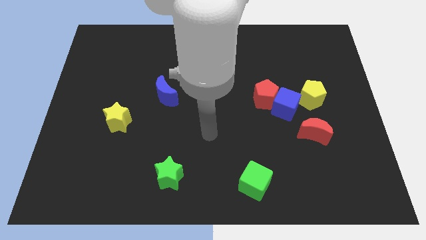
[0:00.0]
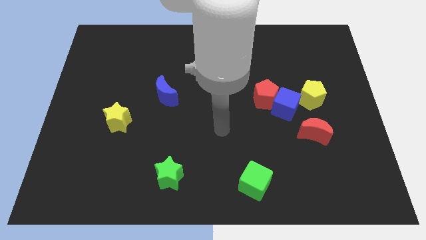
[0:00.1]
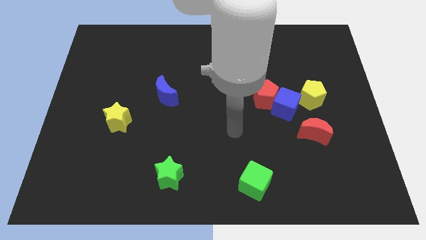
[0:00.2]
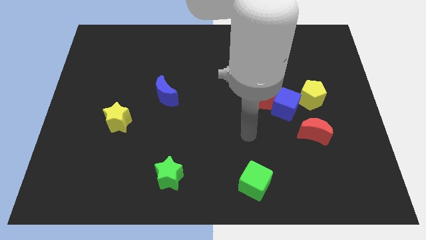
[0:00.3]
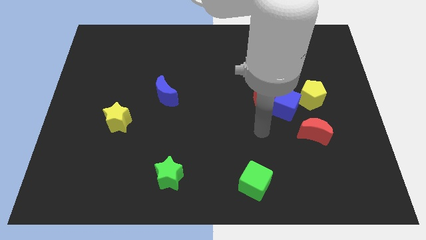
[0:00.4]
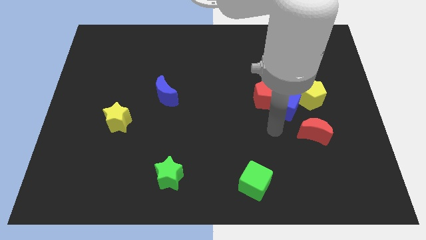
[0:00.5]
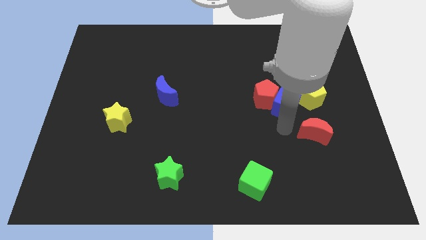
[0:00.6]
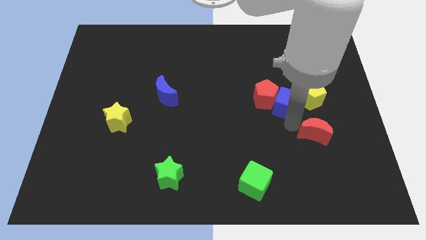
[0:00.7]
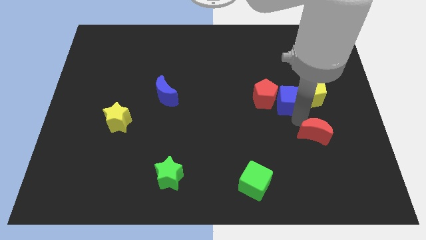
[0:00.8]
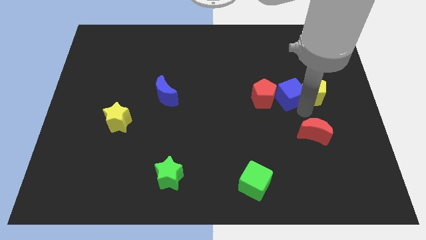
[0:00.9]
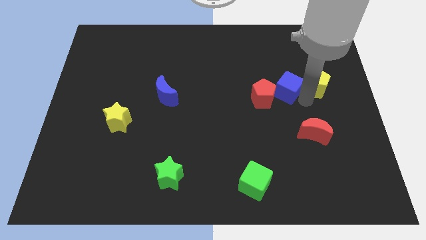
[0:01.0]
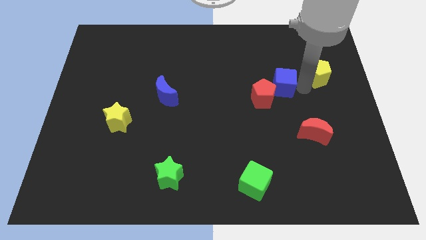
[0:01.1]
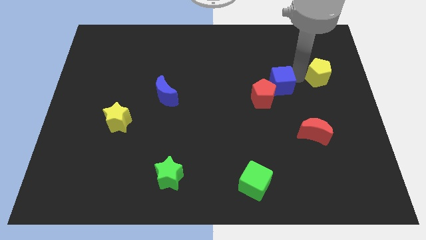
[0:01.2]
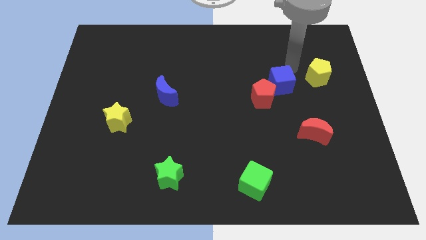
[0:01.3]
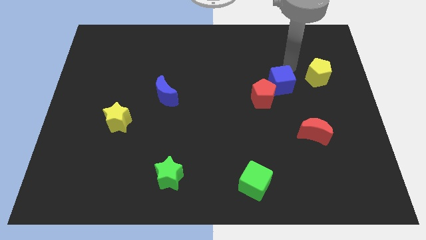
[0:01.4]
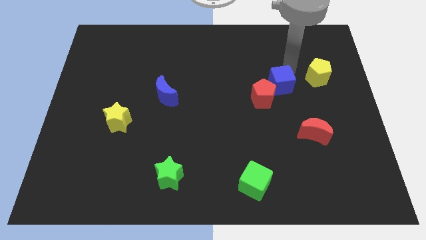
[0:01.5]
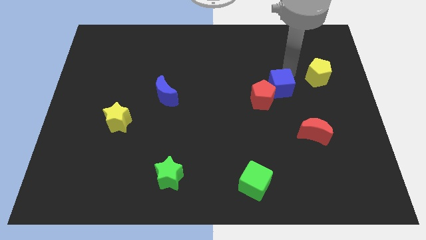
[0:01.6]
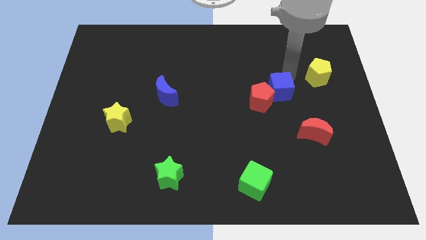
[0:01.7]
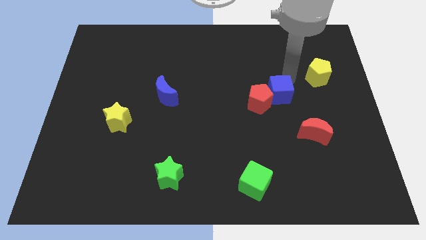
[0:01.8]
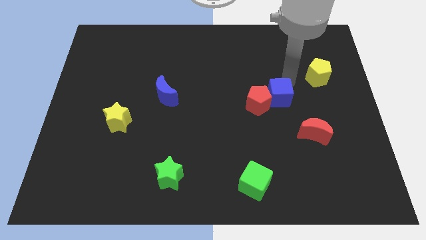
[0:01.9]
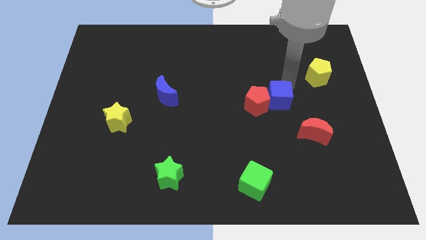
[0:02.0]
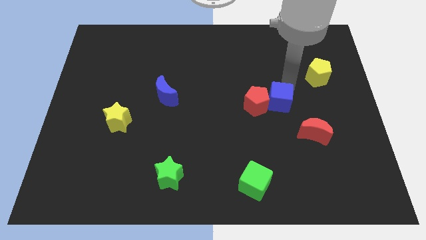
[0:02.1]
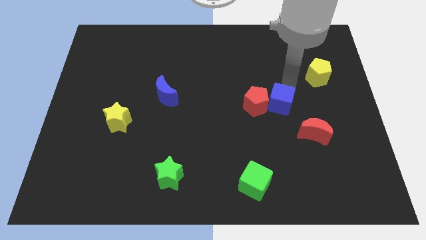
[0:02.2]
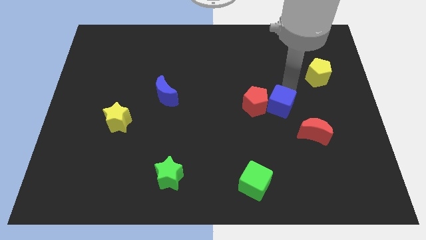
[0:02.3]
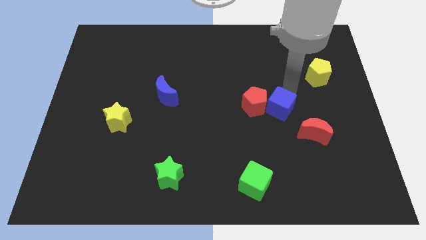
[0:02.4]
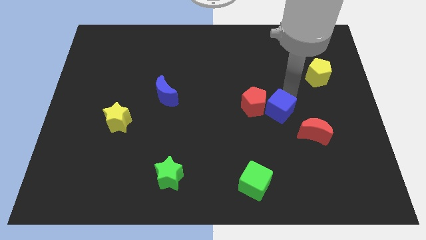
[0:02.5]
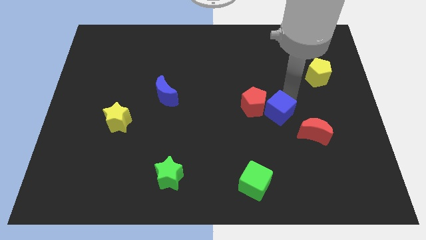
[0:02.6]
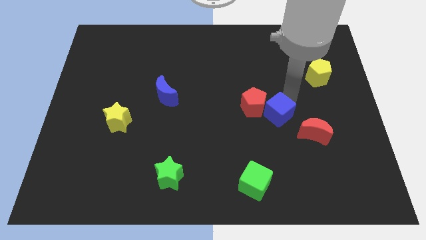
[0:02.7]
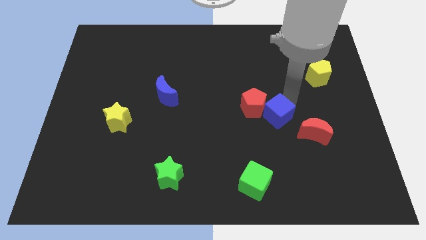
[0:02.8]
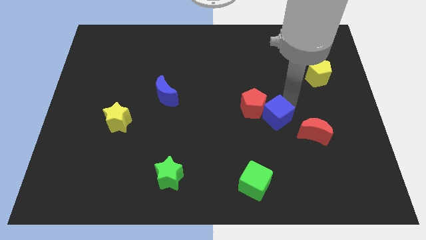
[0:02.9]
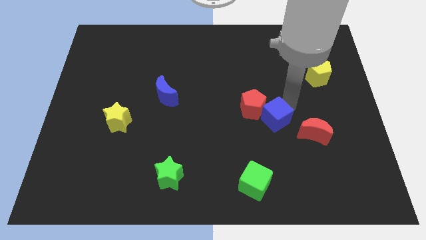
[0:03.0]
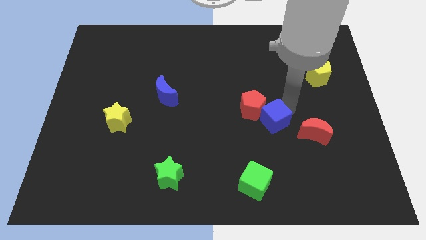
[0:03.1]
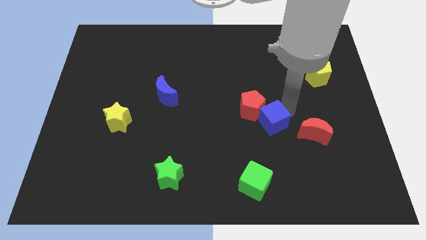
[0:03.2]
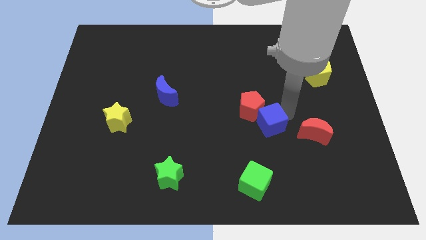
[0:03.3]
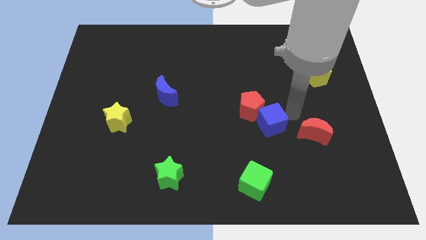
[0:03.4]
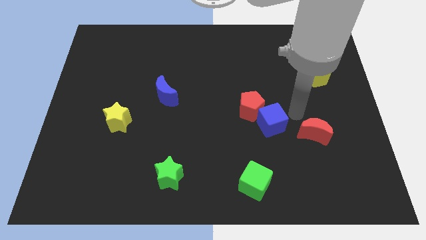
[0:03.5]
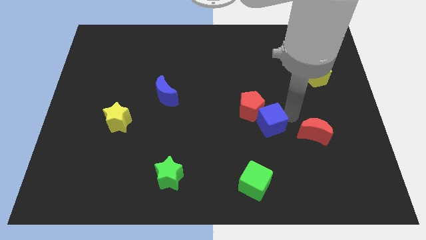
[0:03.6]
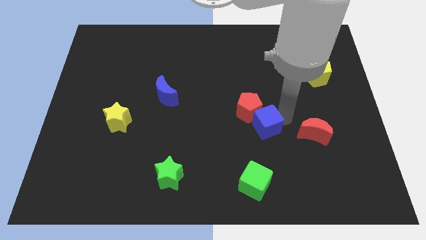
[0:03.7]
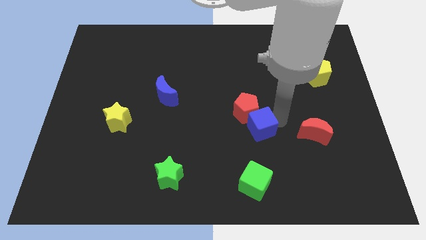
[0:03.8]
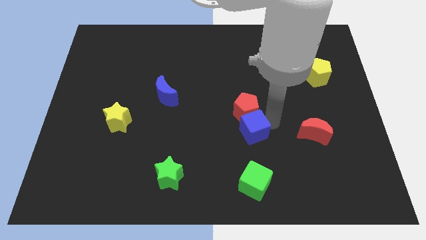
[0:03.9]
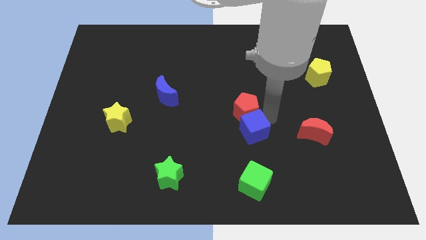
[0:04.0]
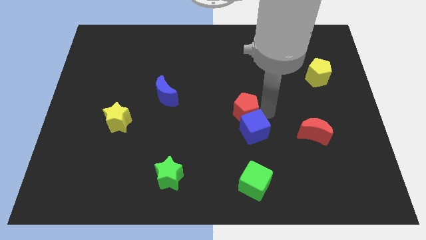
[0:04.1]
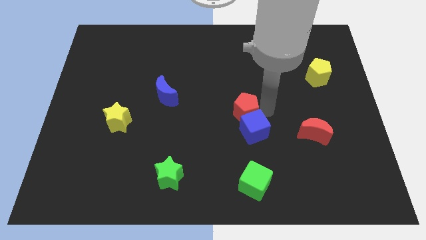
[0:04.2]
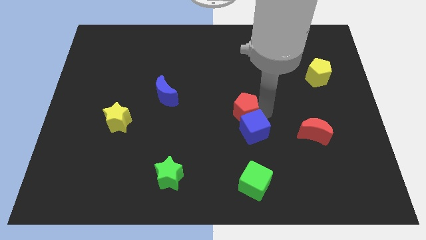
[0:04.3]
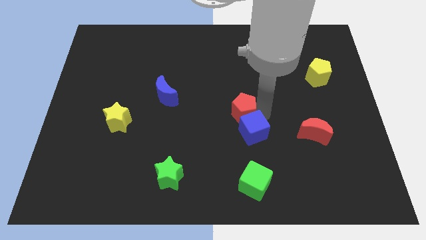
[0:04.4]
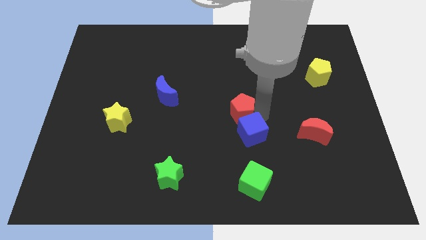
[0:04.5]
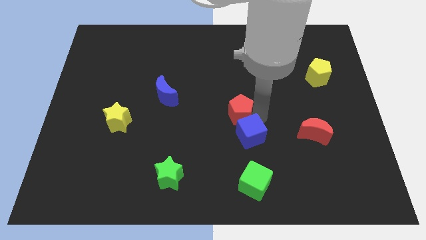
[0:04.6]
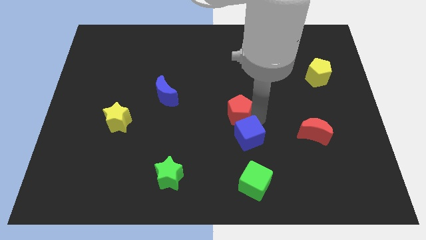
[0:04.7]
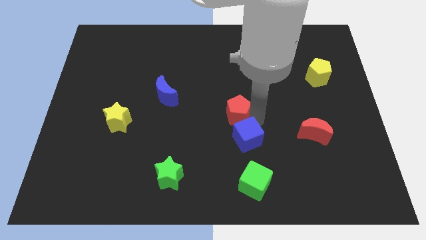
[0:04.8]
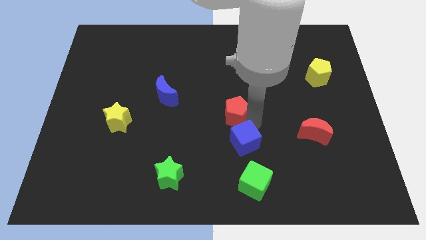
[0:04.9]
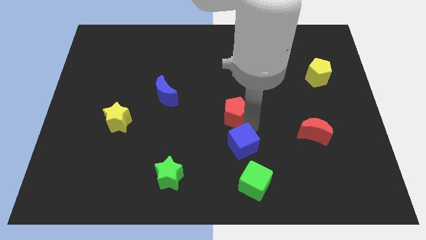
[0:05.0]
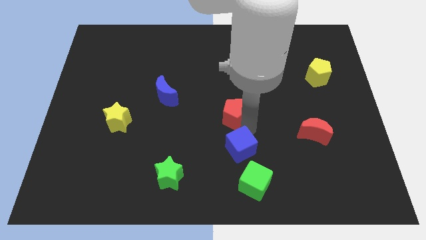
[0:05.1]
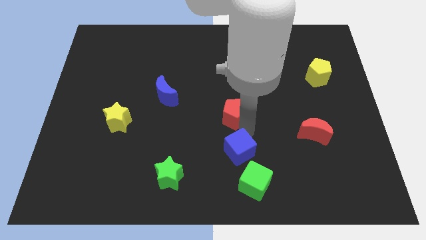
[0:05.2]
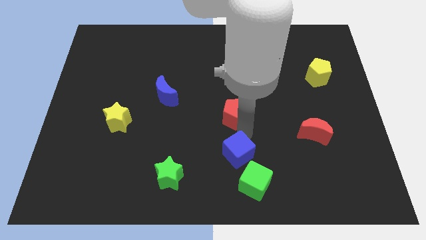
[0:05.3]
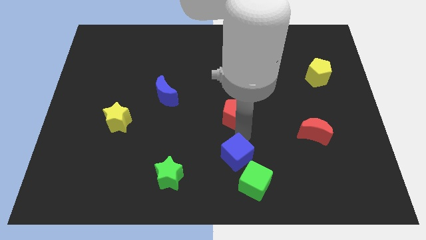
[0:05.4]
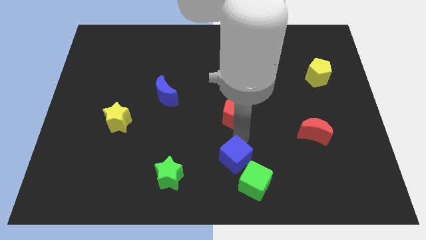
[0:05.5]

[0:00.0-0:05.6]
push the blue cube to the bottom
